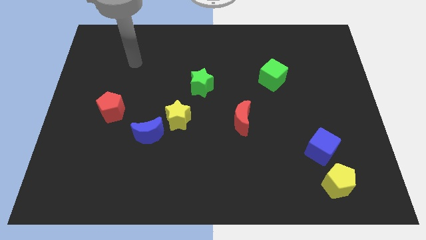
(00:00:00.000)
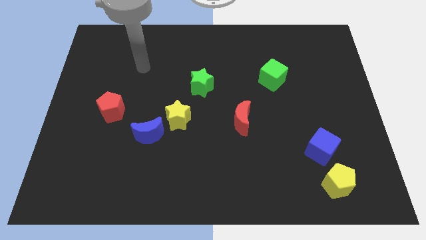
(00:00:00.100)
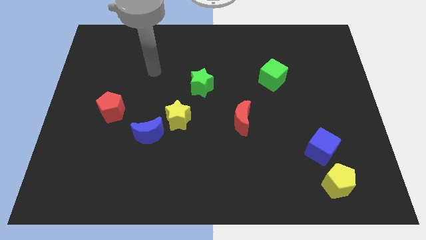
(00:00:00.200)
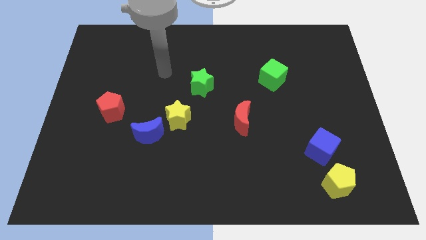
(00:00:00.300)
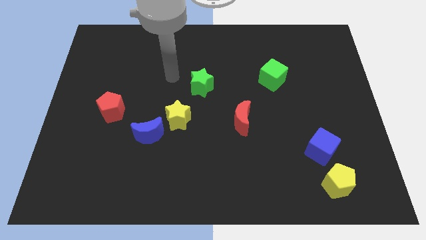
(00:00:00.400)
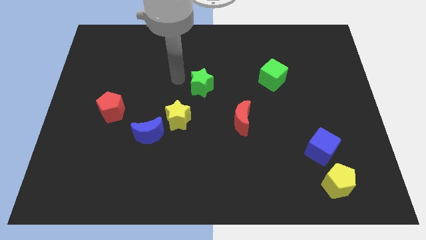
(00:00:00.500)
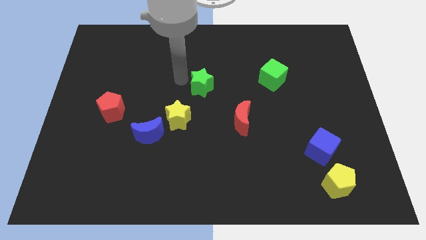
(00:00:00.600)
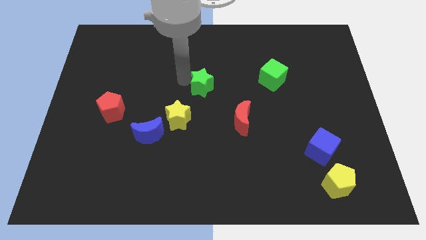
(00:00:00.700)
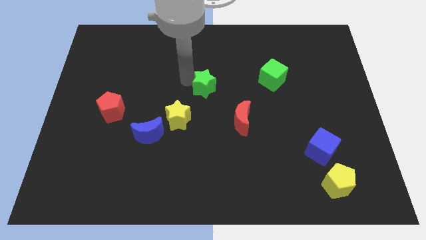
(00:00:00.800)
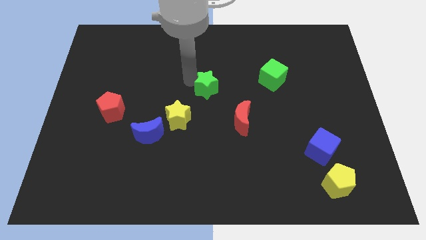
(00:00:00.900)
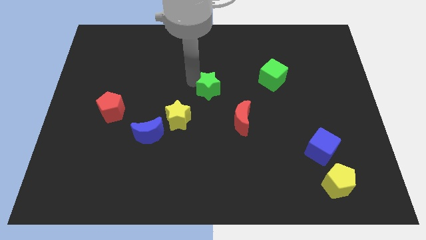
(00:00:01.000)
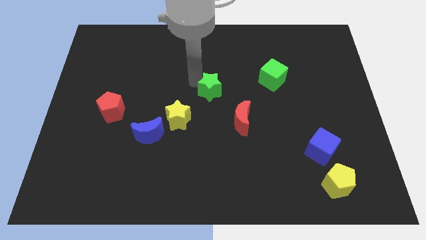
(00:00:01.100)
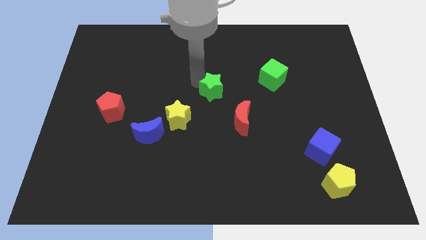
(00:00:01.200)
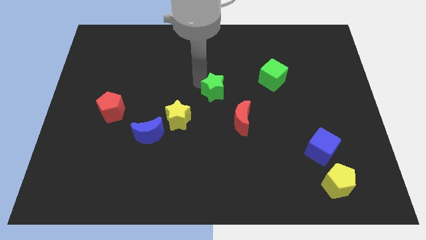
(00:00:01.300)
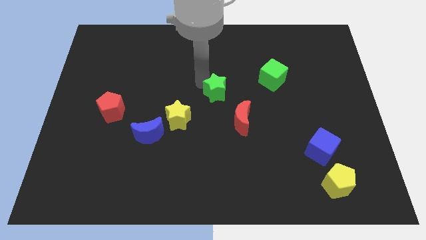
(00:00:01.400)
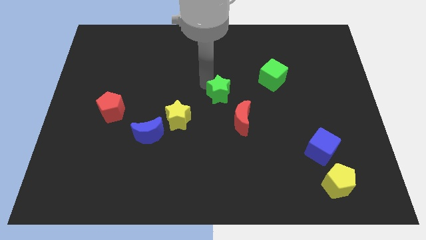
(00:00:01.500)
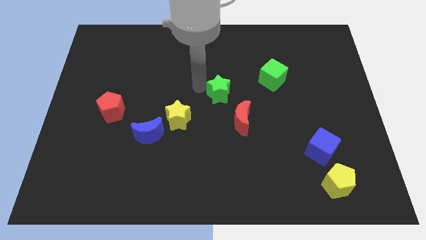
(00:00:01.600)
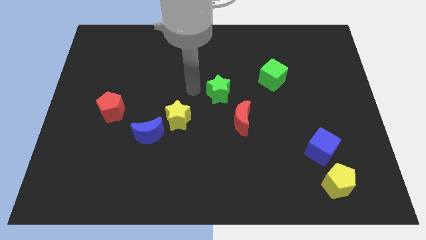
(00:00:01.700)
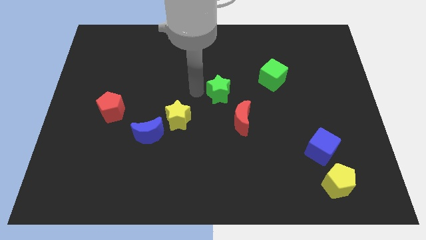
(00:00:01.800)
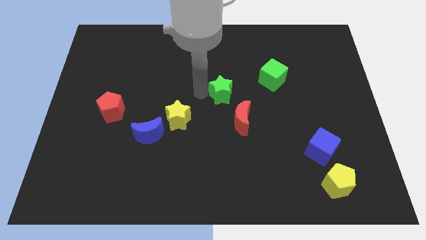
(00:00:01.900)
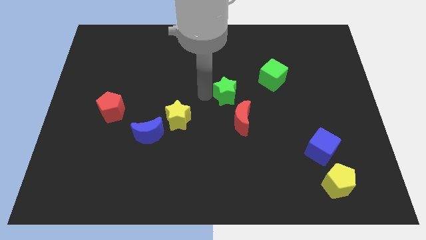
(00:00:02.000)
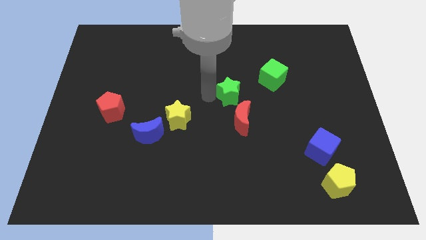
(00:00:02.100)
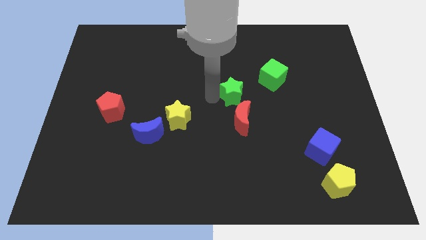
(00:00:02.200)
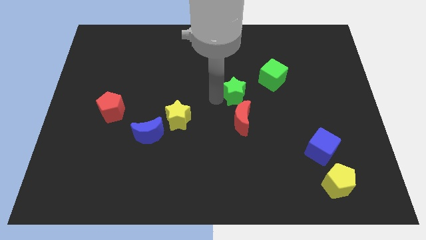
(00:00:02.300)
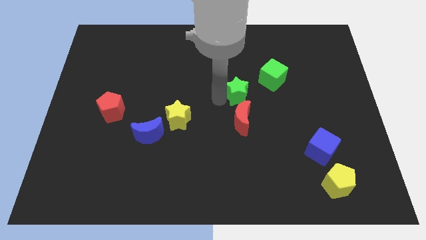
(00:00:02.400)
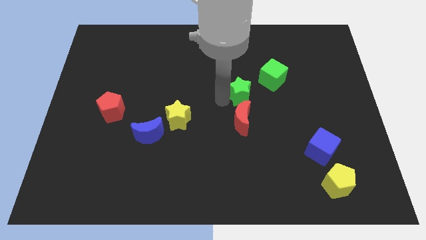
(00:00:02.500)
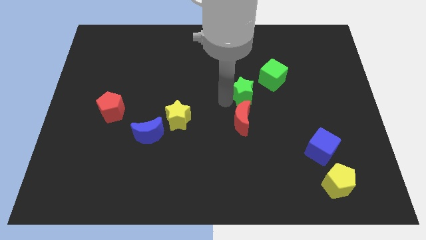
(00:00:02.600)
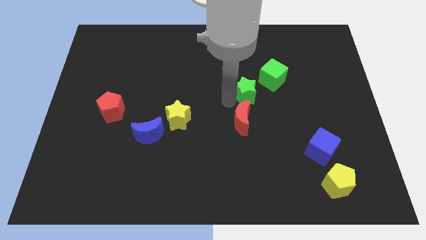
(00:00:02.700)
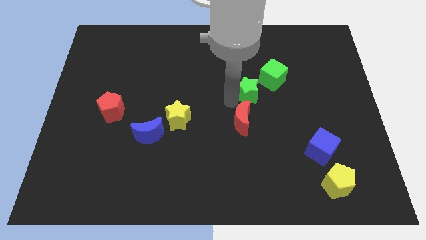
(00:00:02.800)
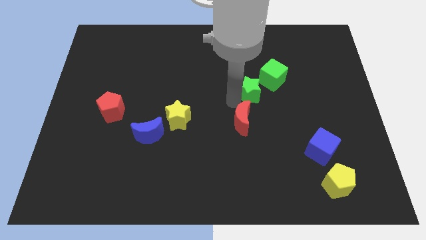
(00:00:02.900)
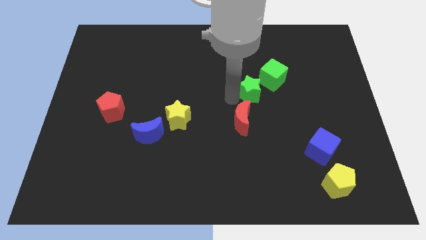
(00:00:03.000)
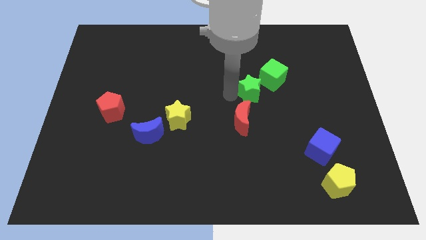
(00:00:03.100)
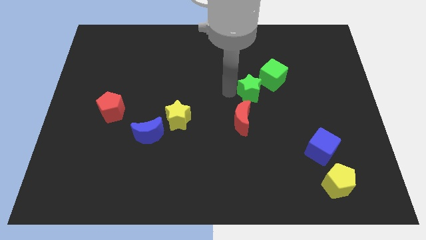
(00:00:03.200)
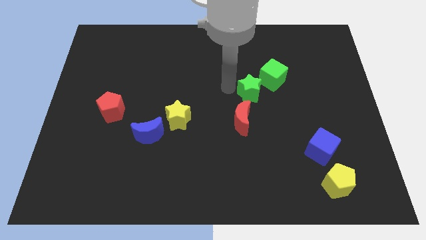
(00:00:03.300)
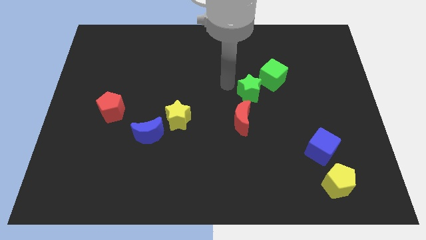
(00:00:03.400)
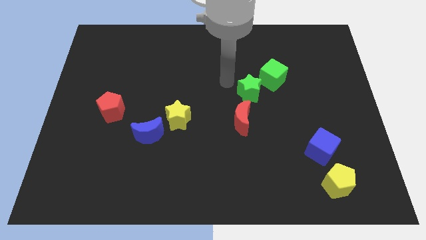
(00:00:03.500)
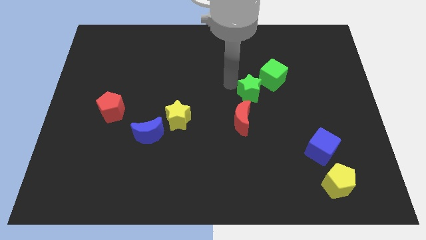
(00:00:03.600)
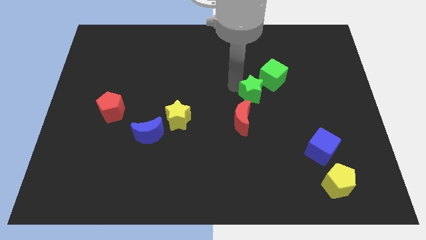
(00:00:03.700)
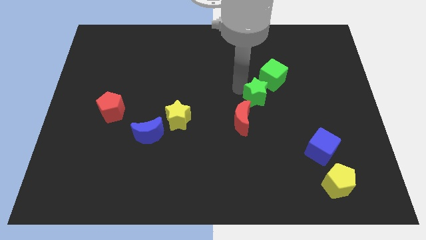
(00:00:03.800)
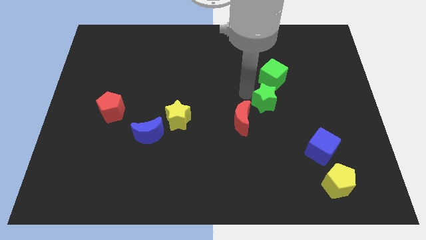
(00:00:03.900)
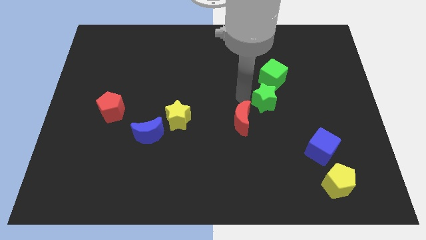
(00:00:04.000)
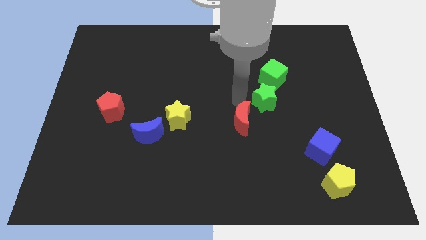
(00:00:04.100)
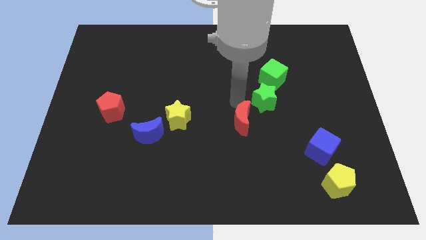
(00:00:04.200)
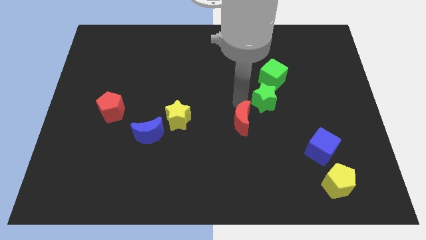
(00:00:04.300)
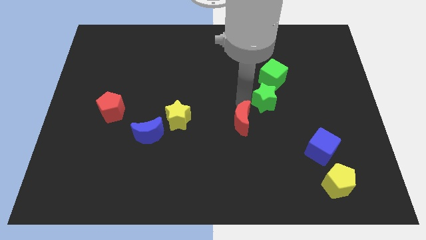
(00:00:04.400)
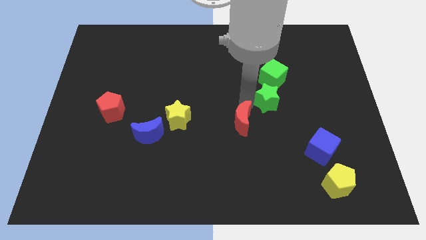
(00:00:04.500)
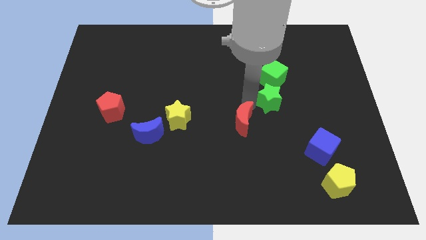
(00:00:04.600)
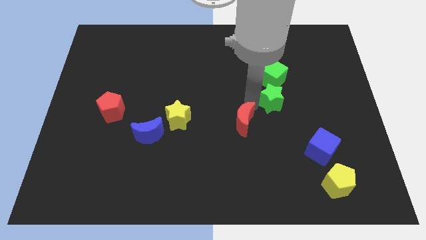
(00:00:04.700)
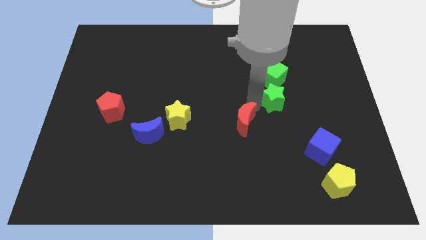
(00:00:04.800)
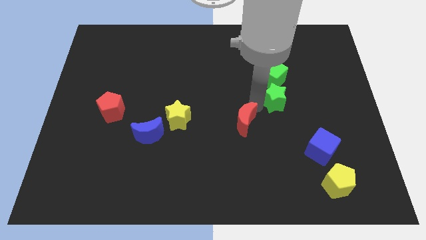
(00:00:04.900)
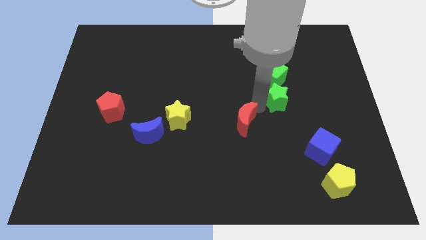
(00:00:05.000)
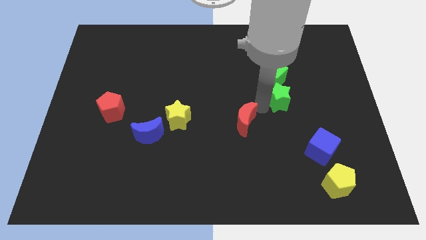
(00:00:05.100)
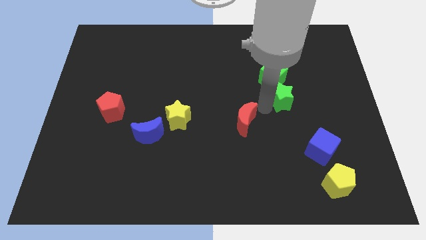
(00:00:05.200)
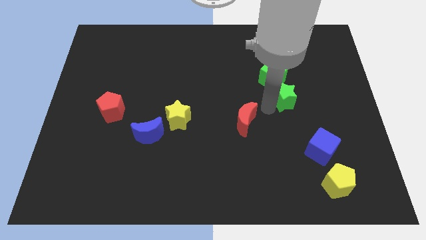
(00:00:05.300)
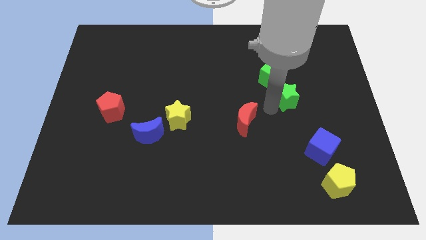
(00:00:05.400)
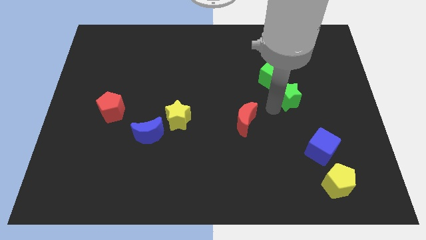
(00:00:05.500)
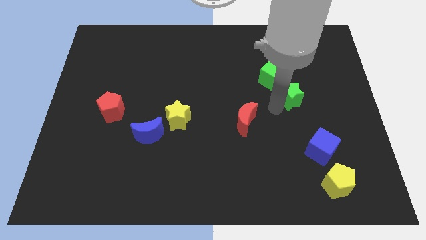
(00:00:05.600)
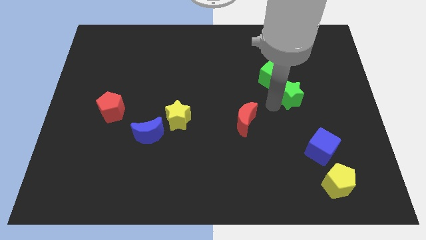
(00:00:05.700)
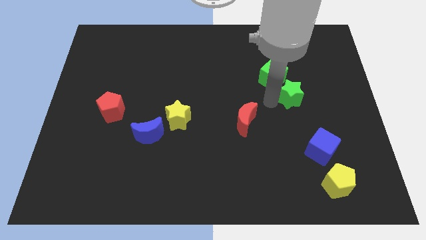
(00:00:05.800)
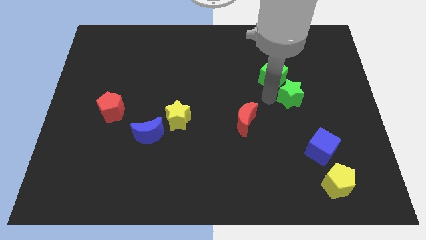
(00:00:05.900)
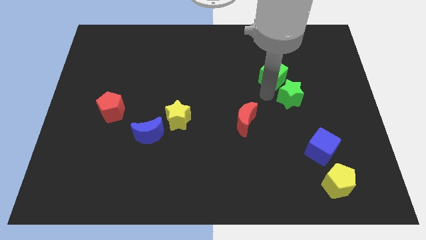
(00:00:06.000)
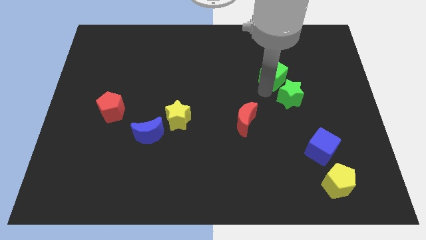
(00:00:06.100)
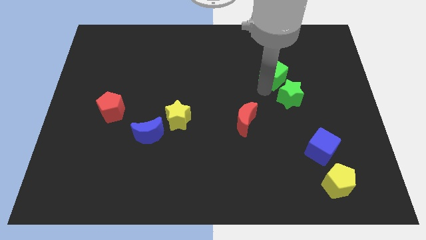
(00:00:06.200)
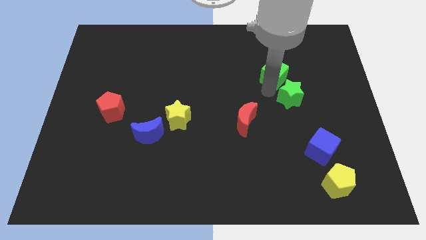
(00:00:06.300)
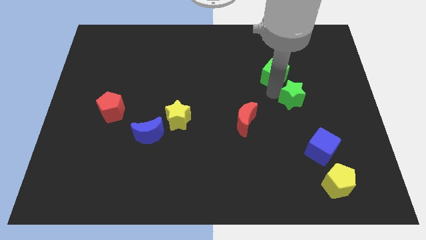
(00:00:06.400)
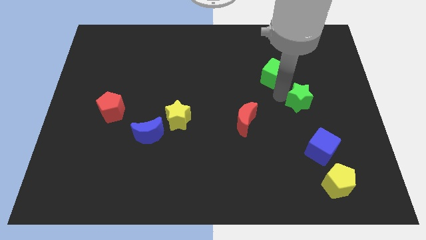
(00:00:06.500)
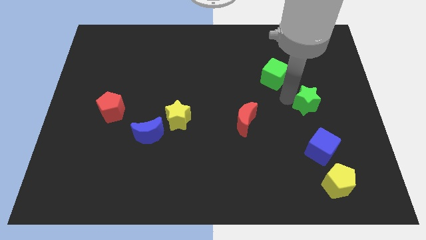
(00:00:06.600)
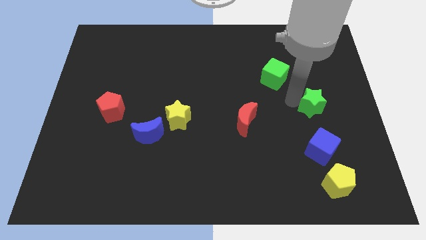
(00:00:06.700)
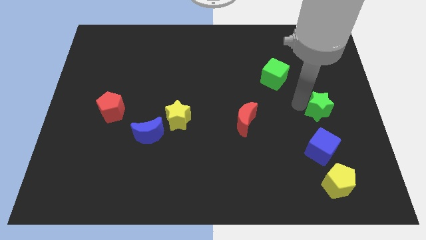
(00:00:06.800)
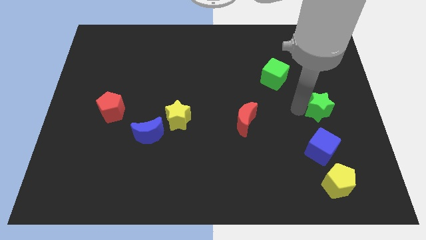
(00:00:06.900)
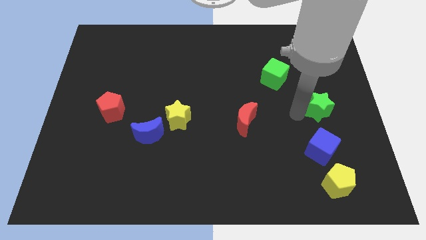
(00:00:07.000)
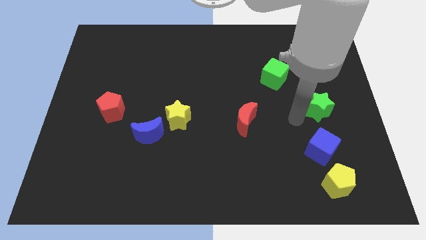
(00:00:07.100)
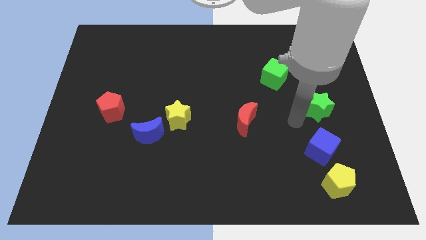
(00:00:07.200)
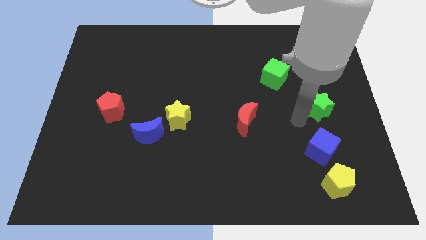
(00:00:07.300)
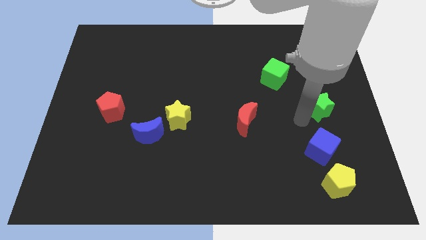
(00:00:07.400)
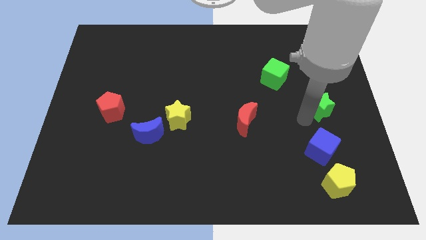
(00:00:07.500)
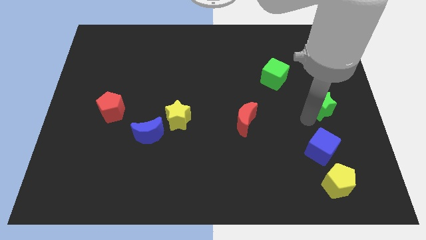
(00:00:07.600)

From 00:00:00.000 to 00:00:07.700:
slide the green star to the center right
